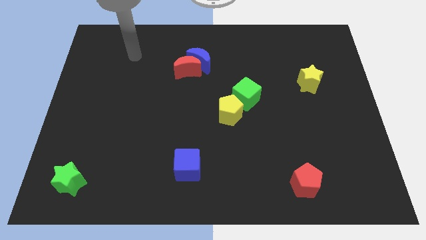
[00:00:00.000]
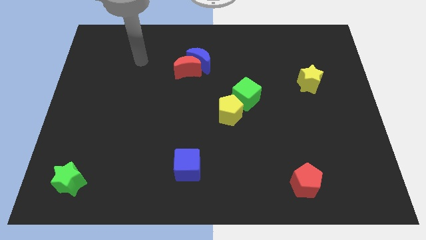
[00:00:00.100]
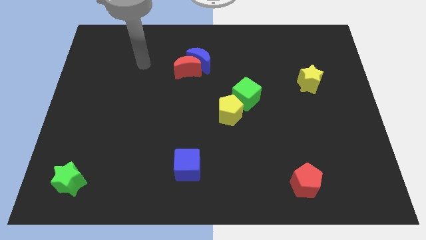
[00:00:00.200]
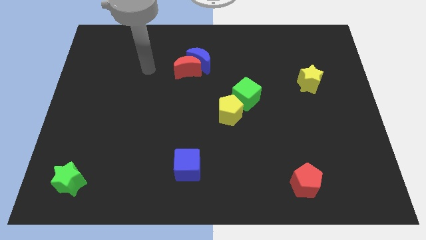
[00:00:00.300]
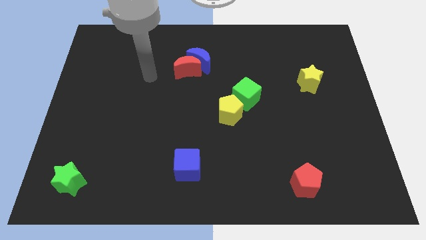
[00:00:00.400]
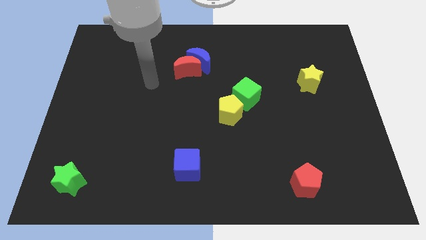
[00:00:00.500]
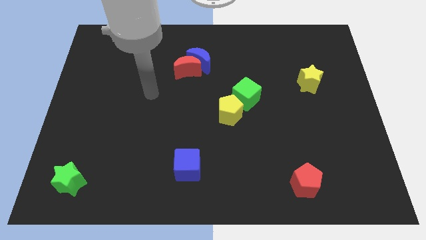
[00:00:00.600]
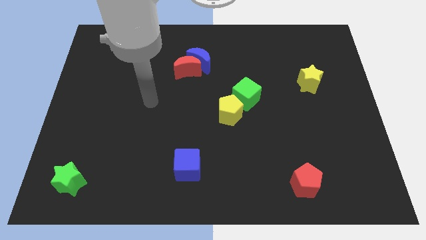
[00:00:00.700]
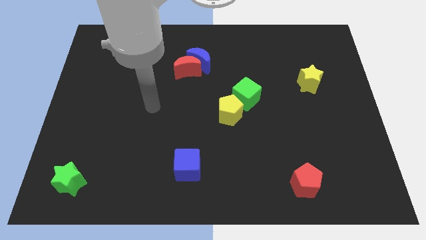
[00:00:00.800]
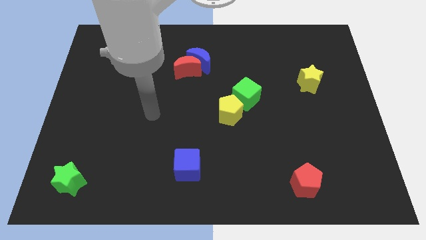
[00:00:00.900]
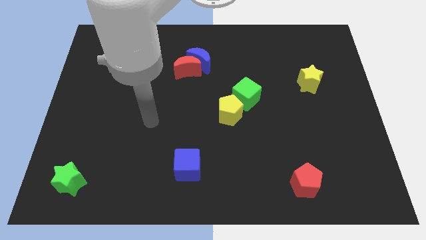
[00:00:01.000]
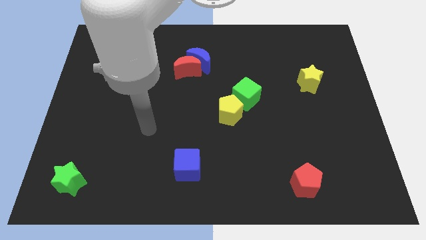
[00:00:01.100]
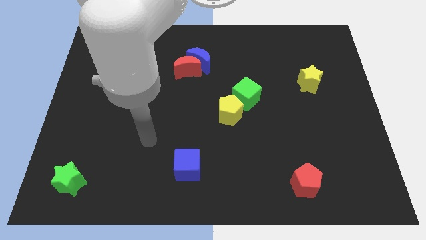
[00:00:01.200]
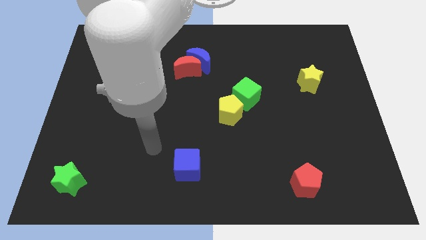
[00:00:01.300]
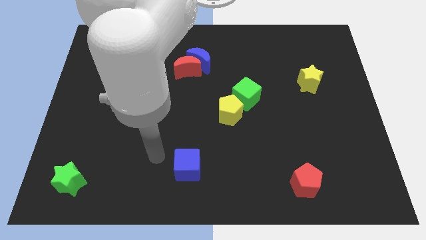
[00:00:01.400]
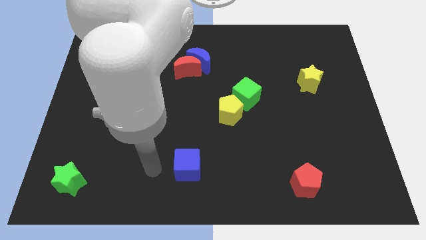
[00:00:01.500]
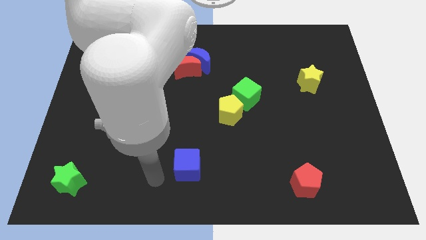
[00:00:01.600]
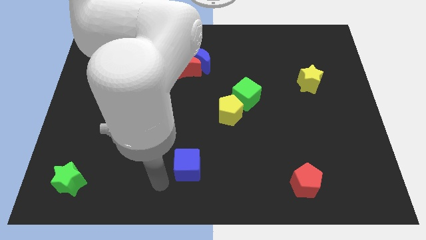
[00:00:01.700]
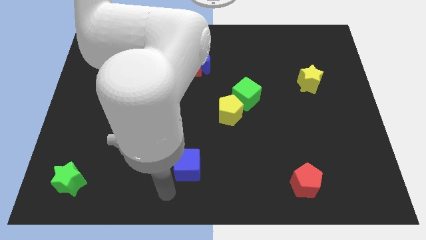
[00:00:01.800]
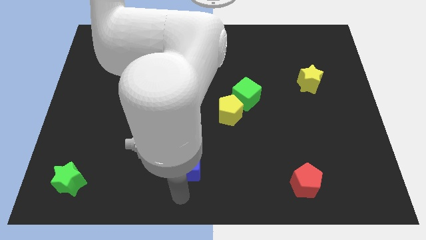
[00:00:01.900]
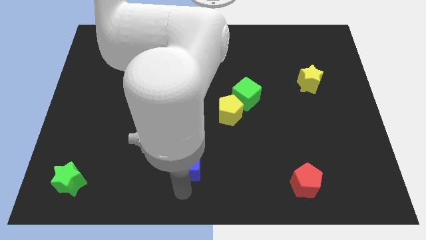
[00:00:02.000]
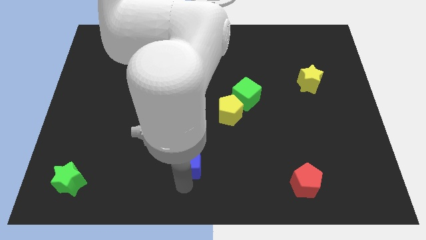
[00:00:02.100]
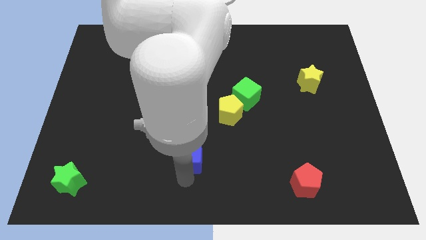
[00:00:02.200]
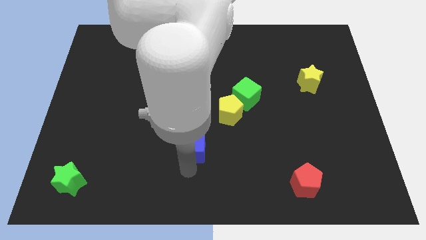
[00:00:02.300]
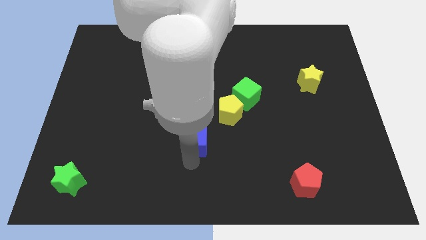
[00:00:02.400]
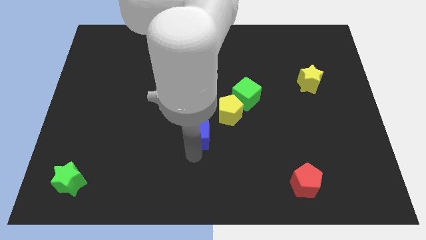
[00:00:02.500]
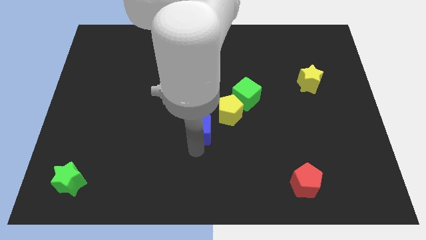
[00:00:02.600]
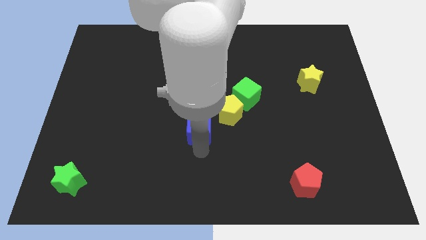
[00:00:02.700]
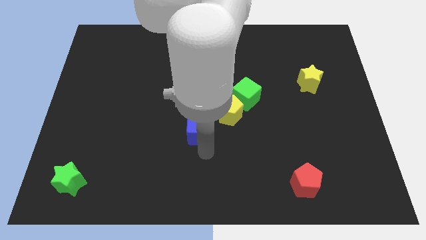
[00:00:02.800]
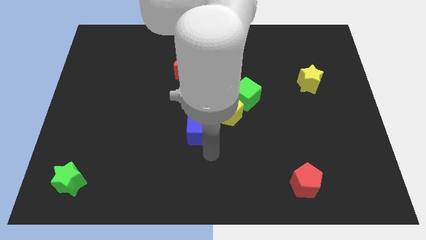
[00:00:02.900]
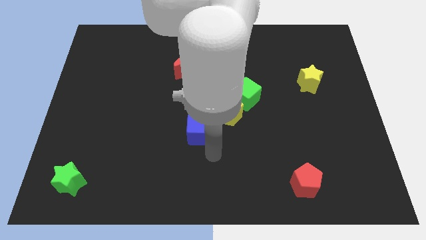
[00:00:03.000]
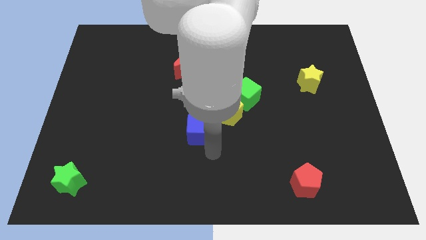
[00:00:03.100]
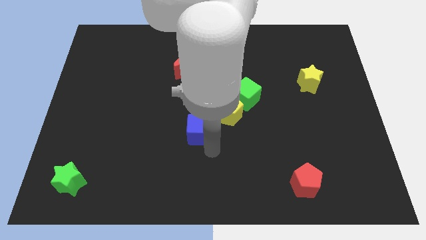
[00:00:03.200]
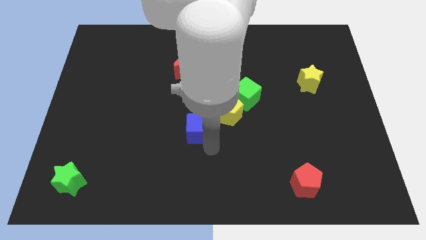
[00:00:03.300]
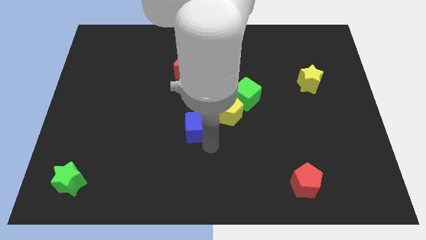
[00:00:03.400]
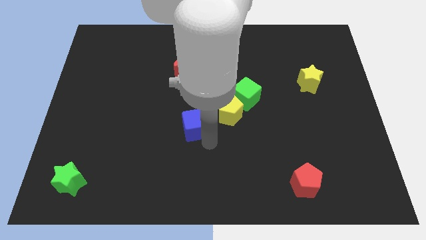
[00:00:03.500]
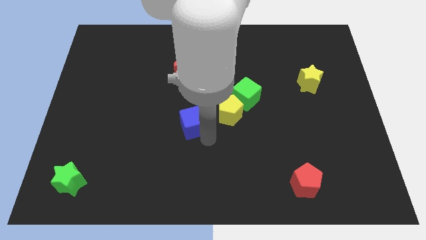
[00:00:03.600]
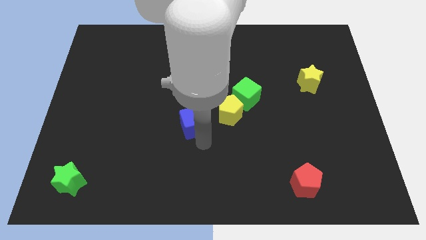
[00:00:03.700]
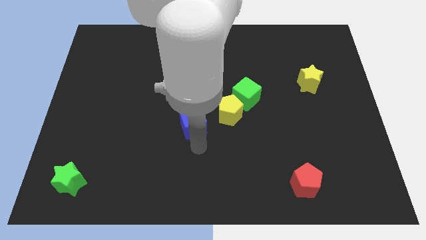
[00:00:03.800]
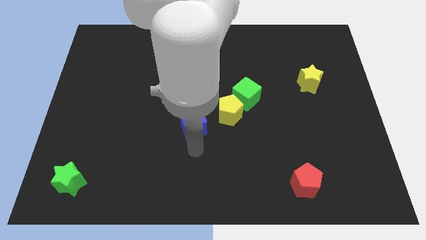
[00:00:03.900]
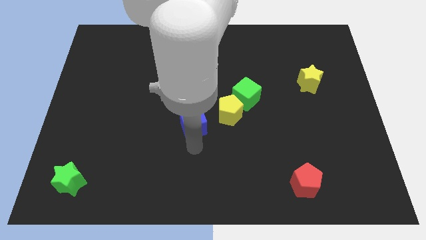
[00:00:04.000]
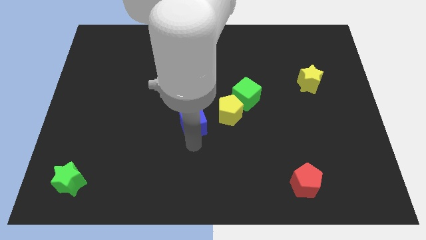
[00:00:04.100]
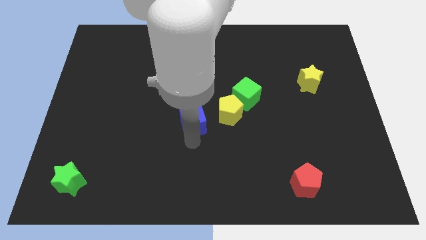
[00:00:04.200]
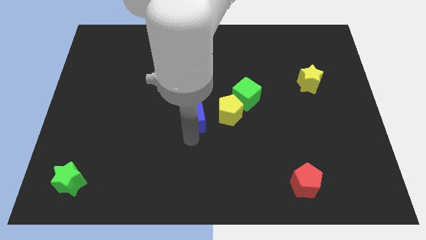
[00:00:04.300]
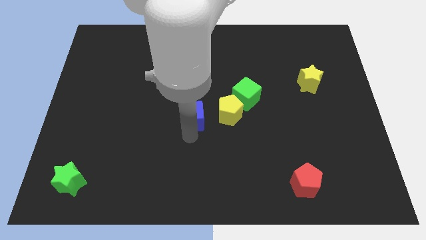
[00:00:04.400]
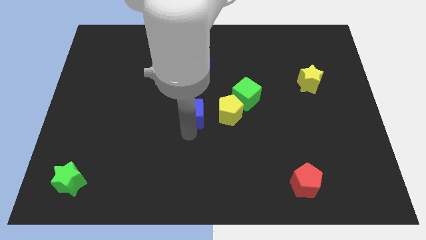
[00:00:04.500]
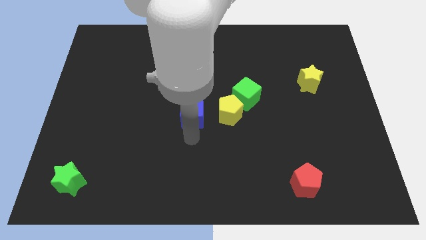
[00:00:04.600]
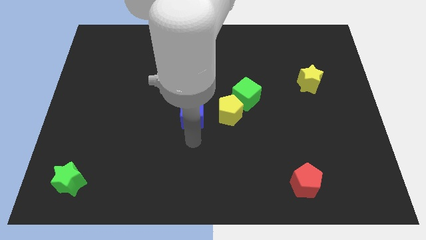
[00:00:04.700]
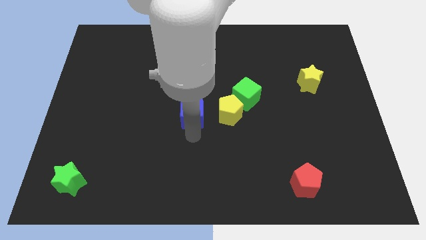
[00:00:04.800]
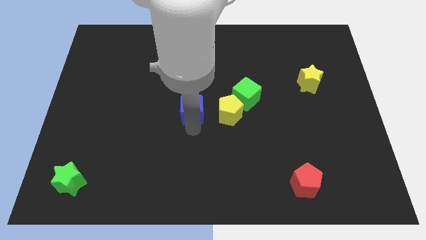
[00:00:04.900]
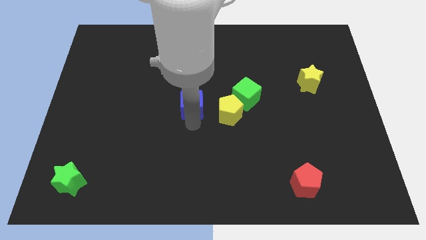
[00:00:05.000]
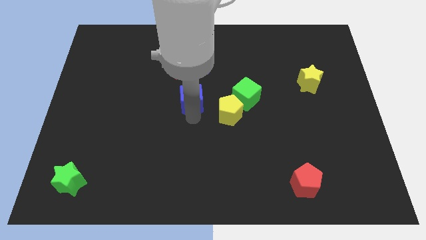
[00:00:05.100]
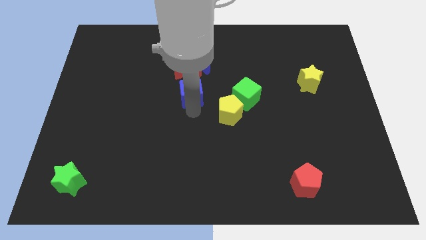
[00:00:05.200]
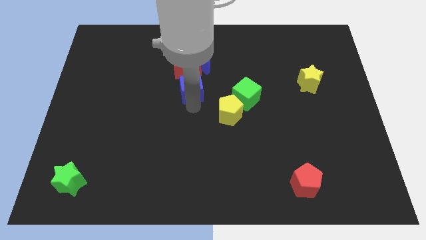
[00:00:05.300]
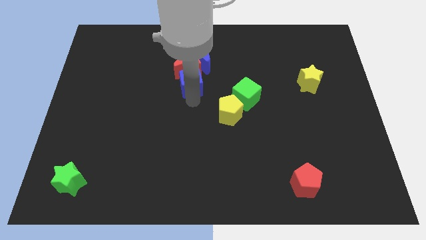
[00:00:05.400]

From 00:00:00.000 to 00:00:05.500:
move the blue cube close to the red moon
